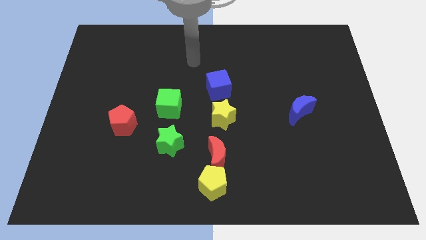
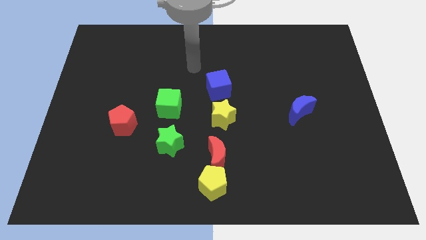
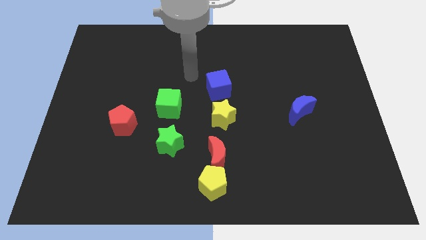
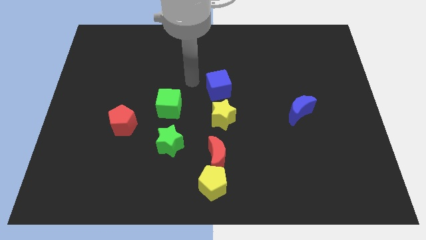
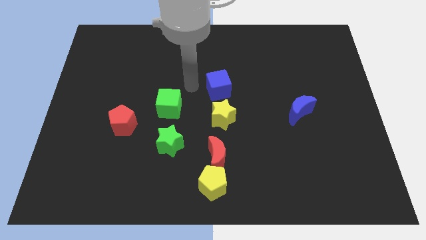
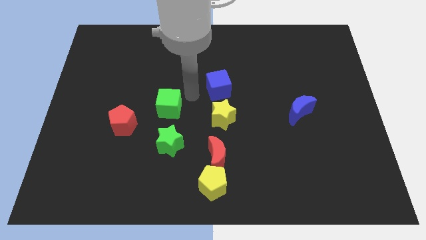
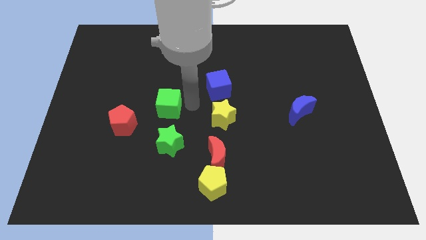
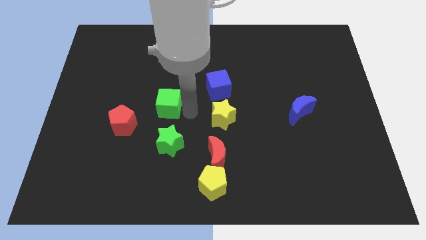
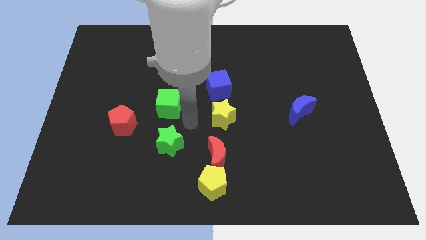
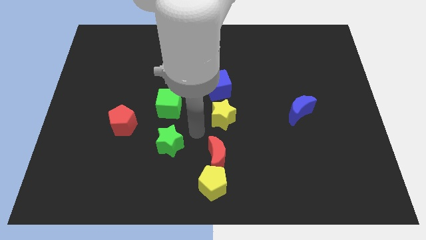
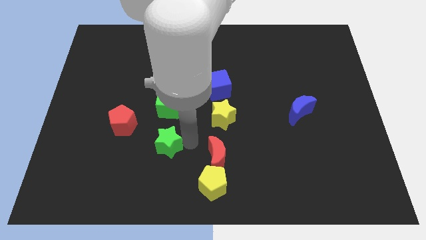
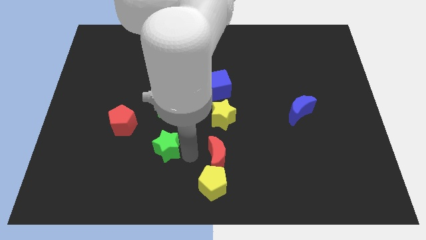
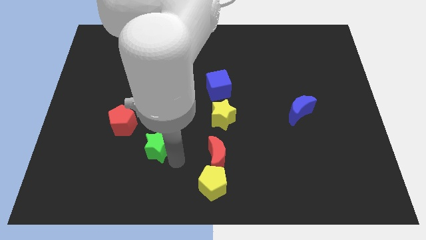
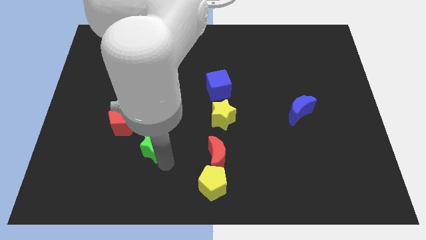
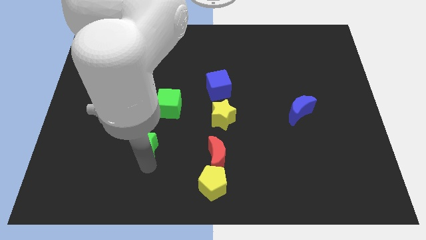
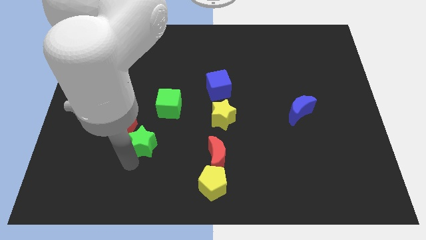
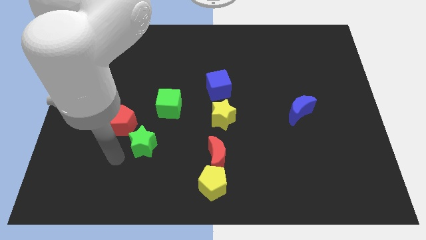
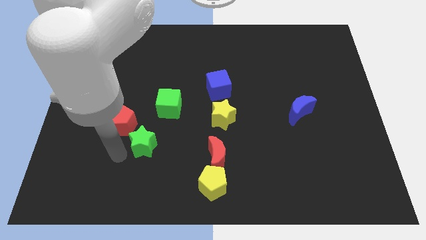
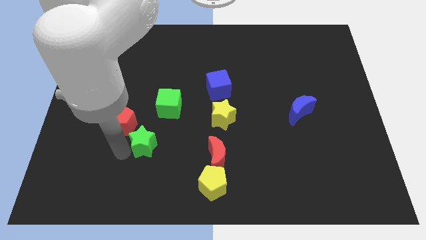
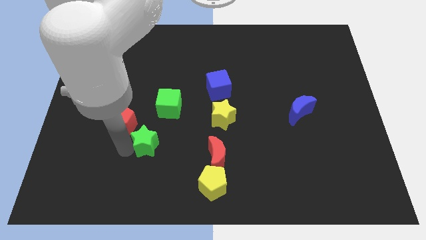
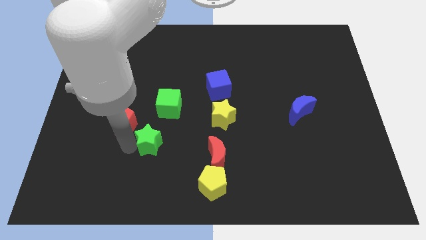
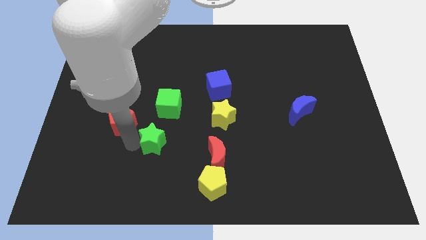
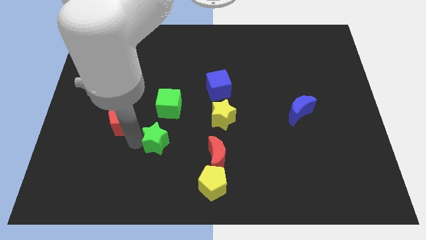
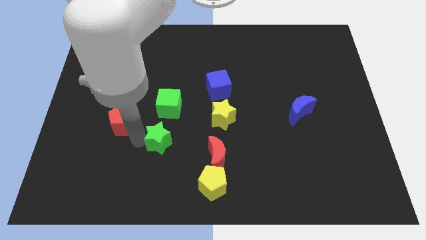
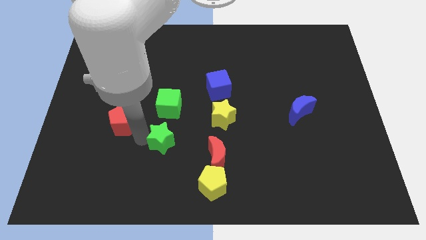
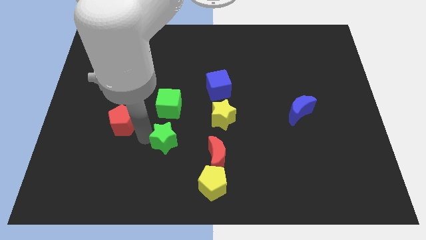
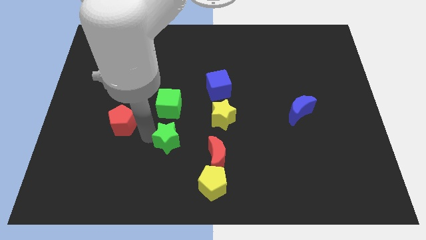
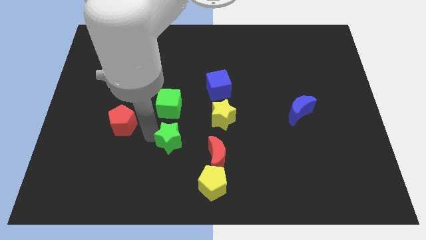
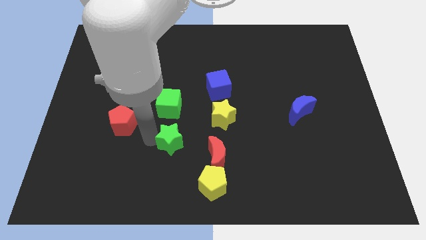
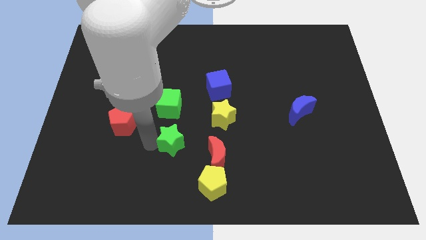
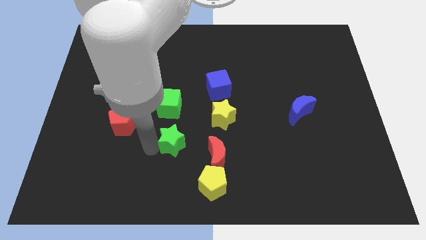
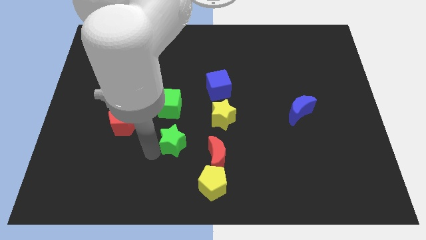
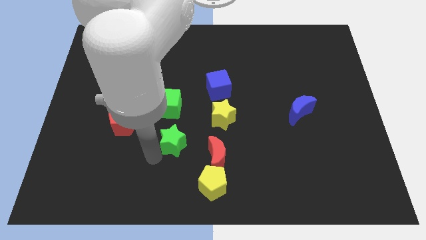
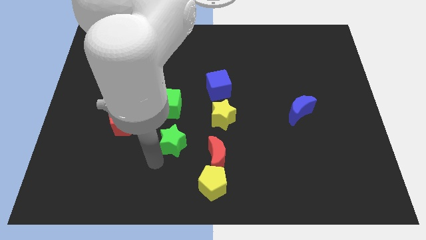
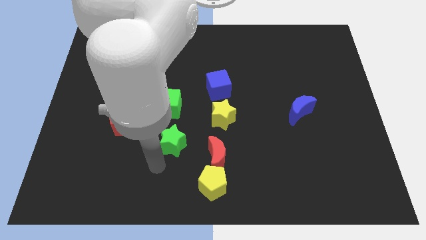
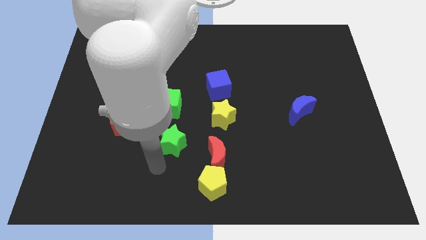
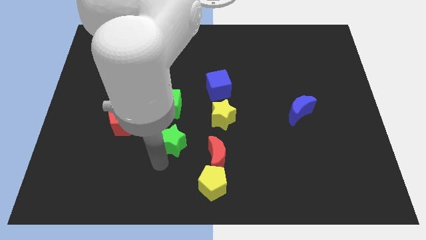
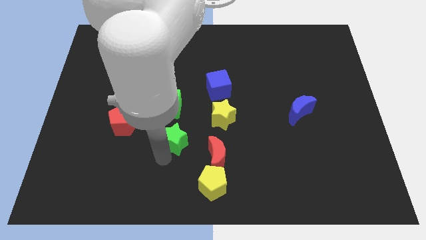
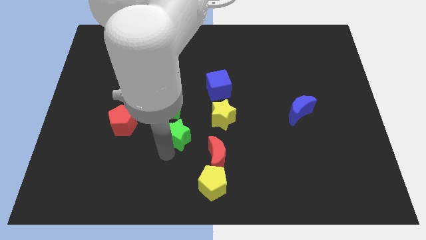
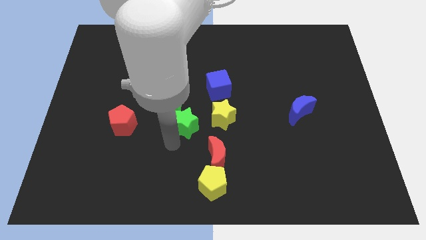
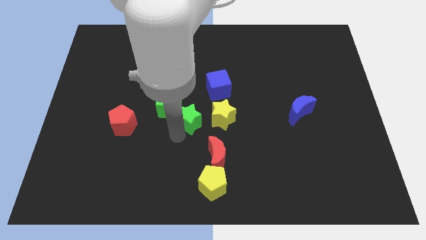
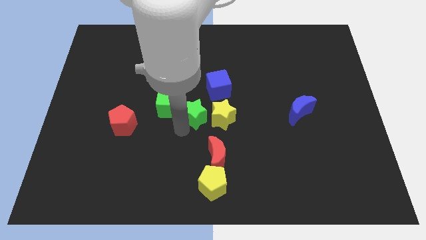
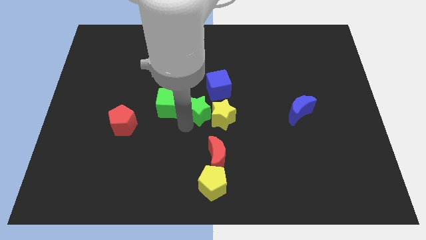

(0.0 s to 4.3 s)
move the green star above the red moon

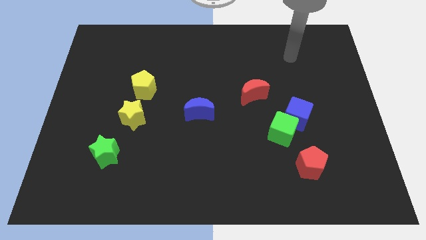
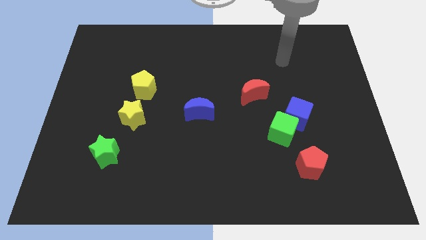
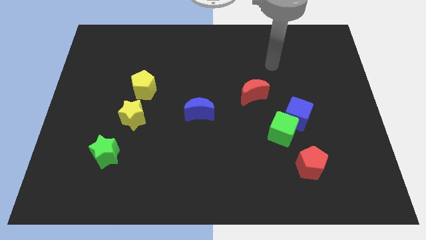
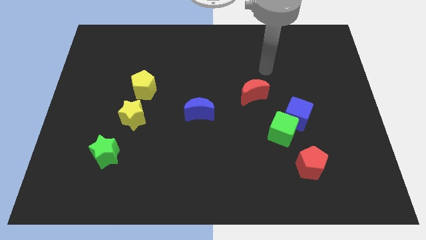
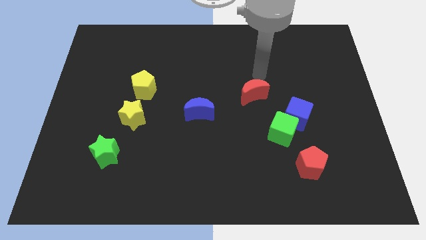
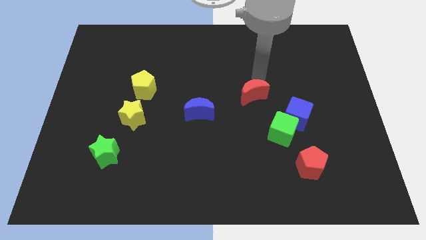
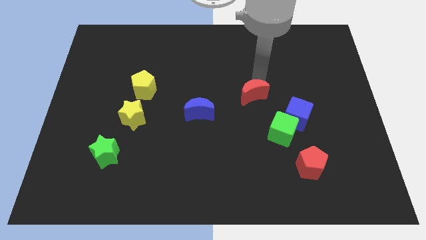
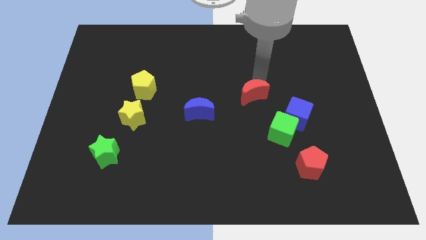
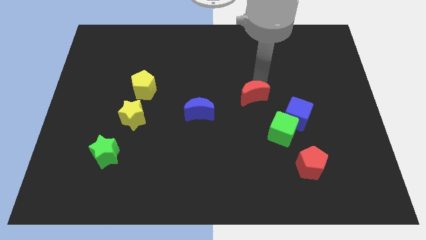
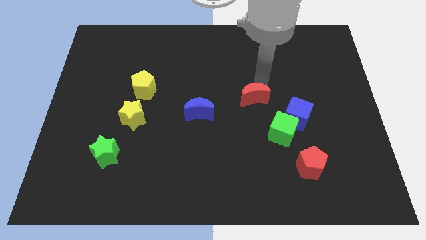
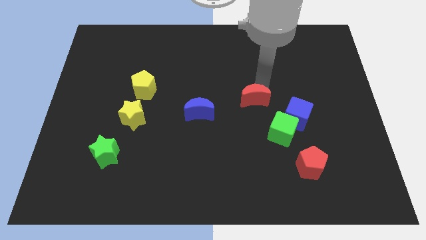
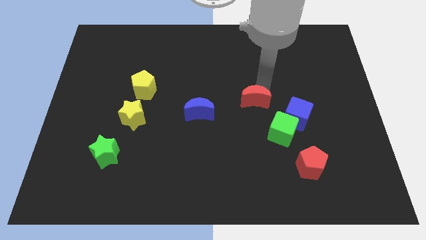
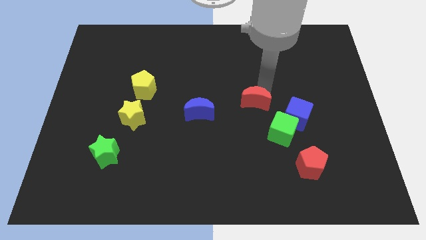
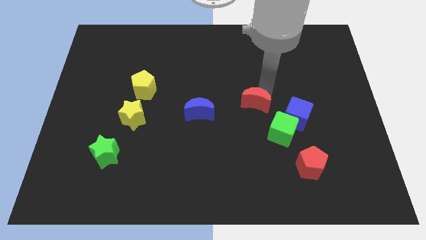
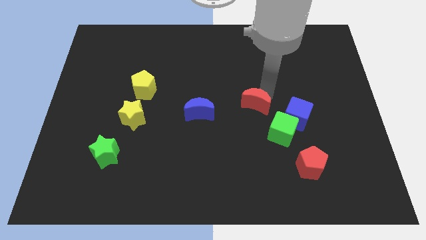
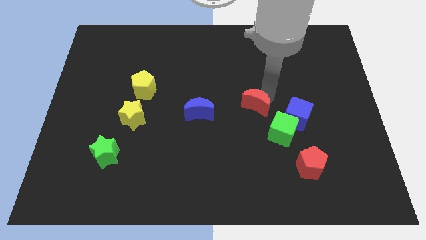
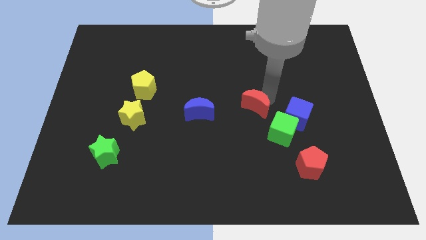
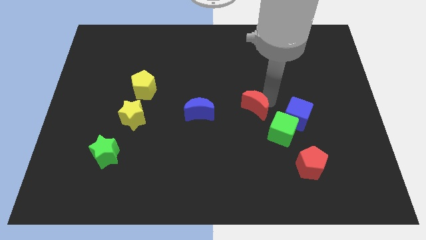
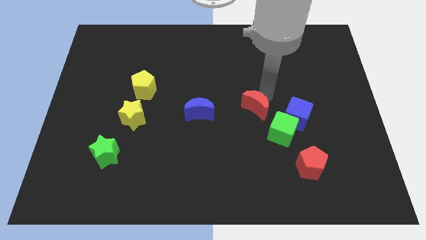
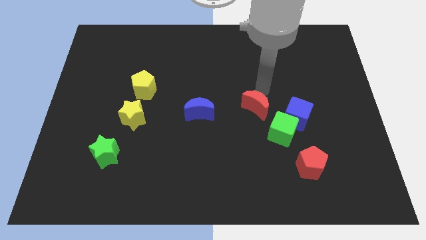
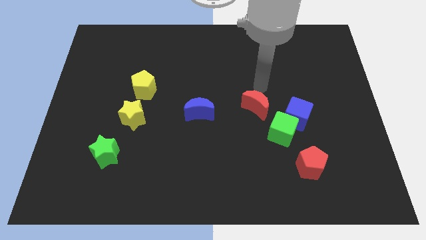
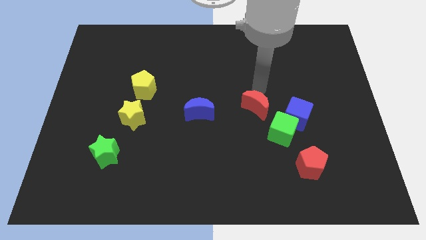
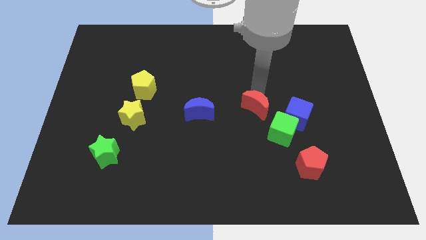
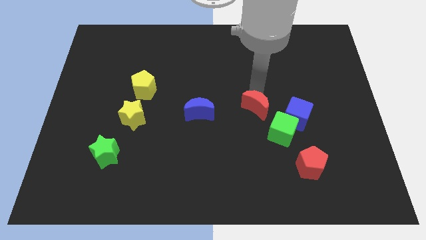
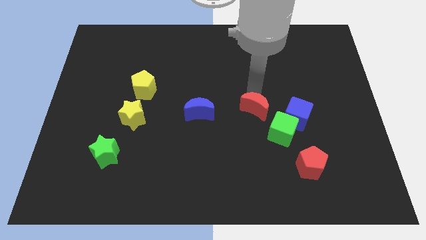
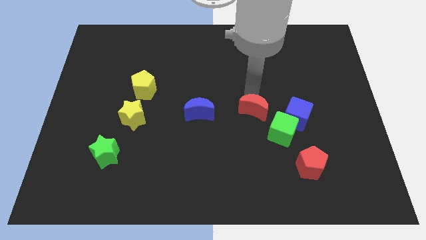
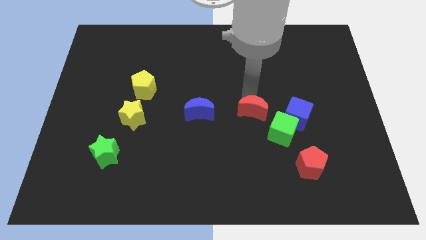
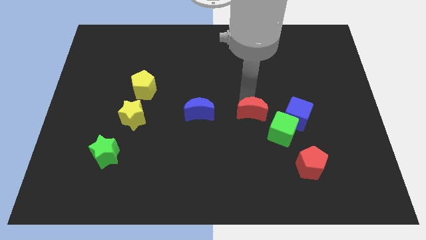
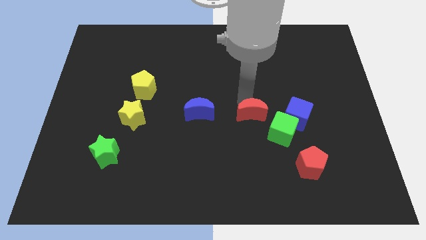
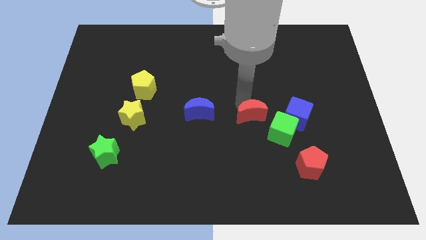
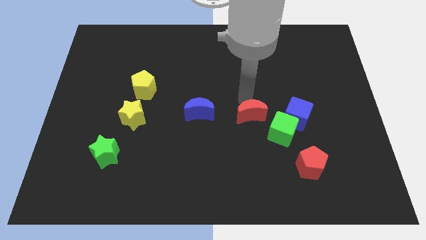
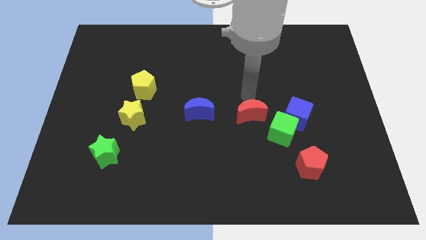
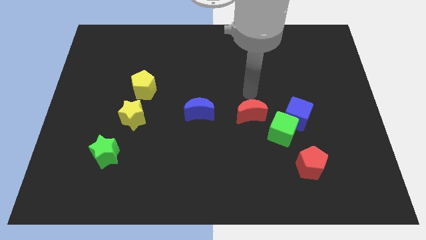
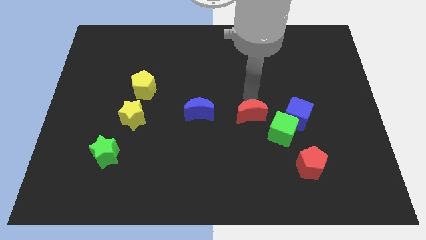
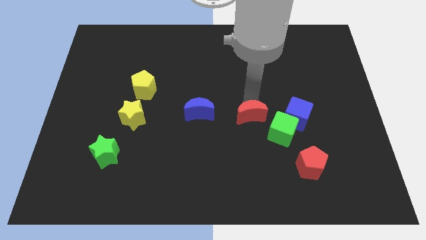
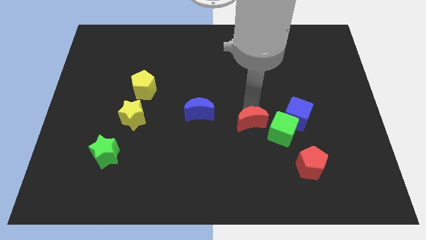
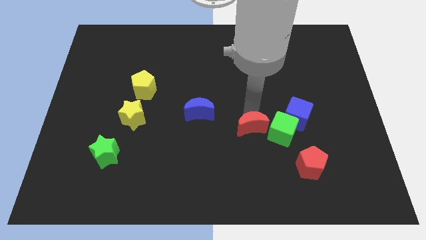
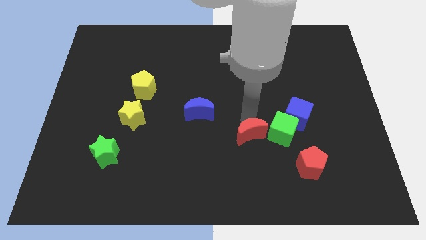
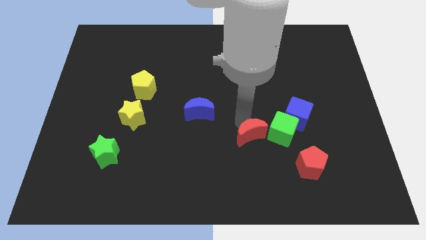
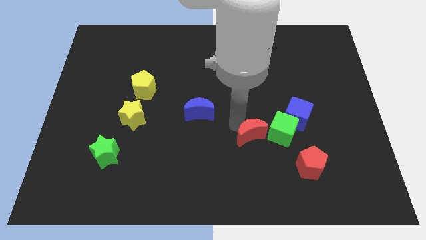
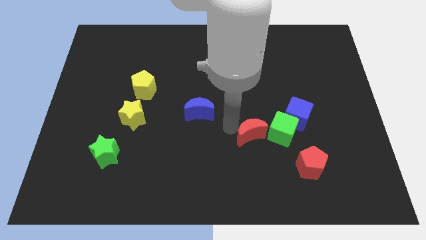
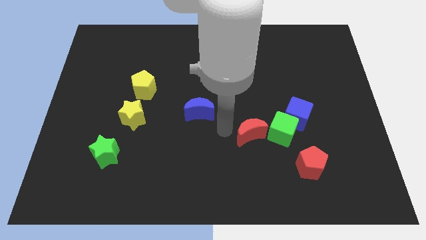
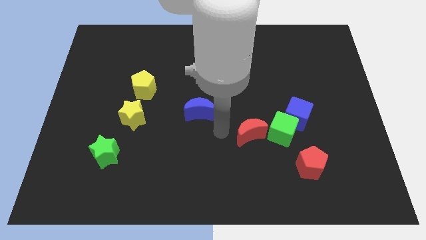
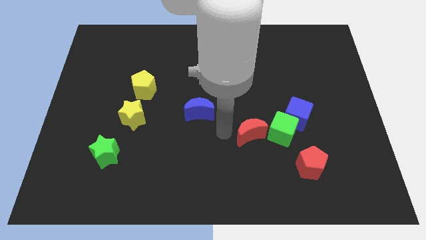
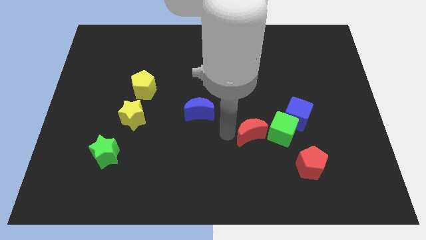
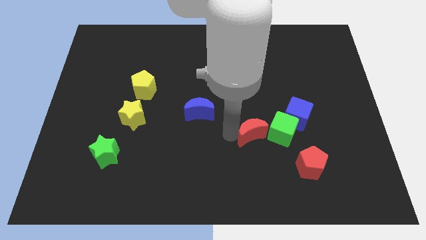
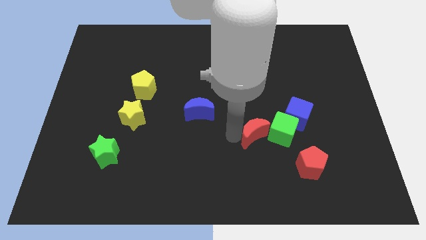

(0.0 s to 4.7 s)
push the red moon diagonally down and to the left of the blue cube
